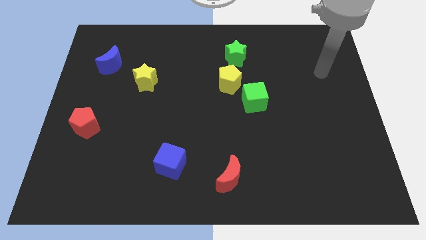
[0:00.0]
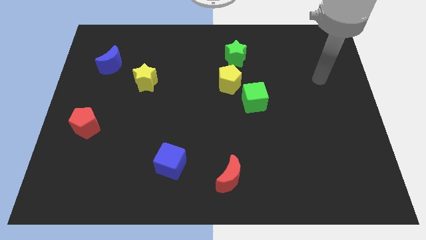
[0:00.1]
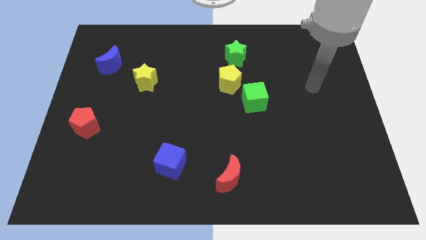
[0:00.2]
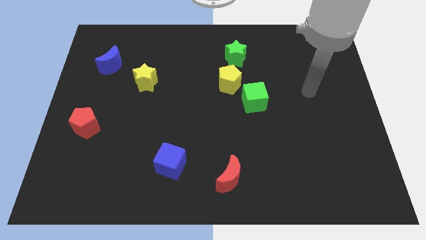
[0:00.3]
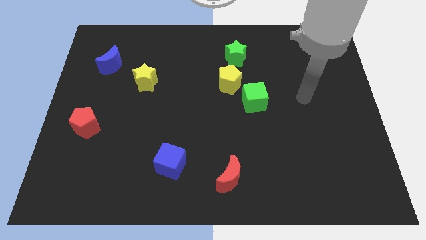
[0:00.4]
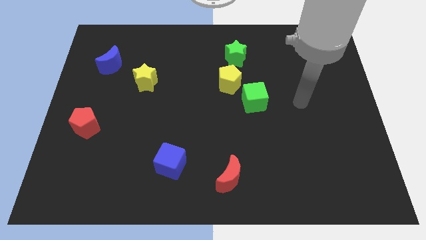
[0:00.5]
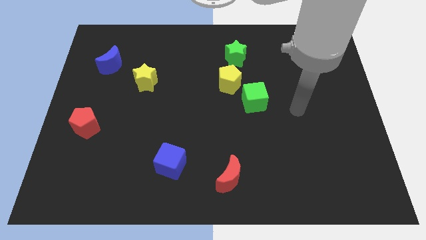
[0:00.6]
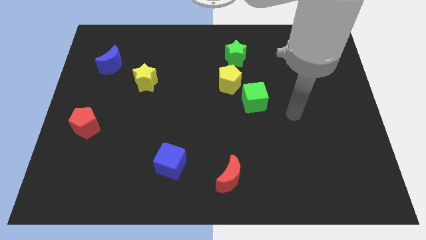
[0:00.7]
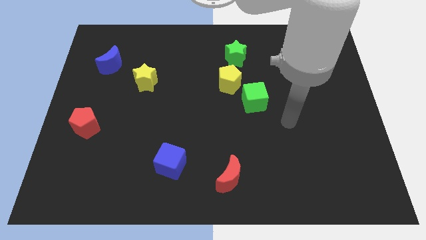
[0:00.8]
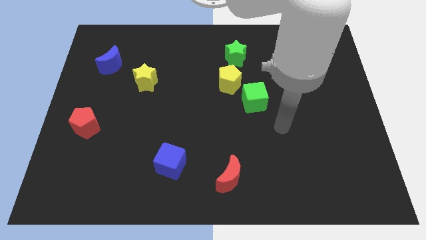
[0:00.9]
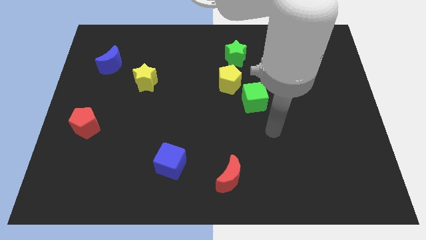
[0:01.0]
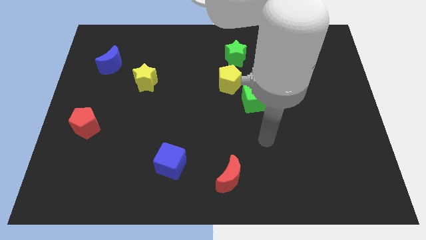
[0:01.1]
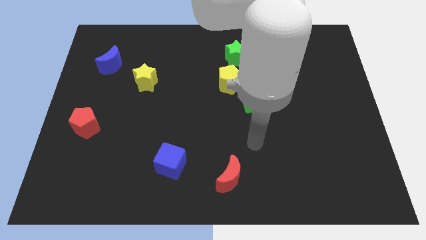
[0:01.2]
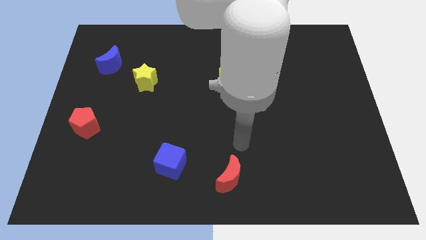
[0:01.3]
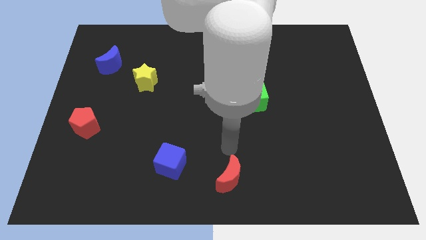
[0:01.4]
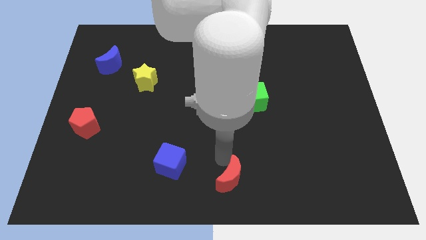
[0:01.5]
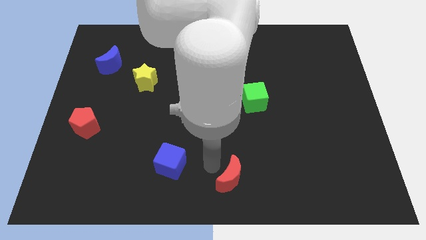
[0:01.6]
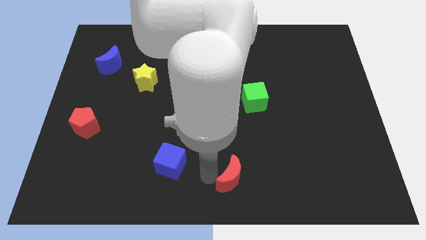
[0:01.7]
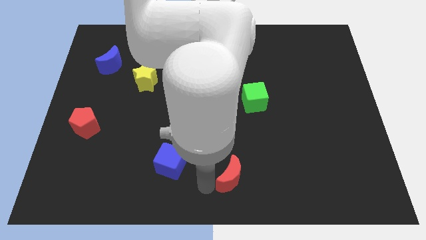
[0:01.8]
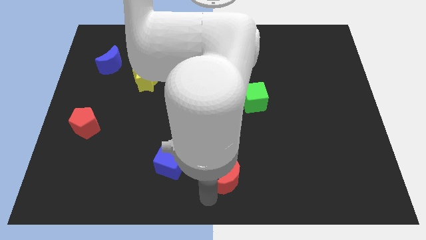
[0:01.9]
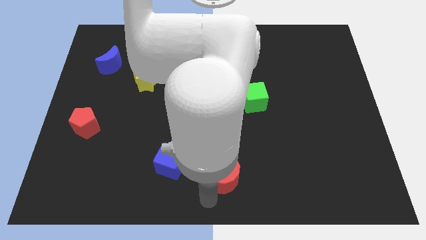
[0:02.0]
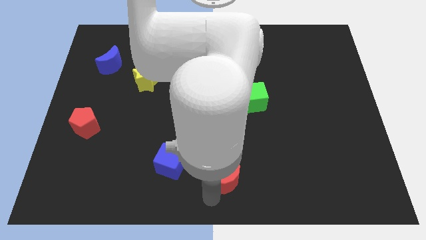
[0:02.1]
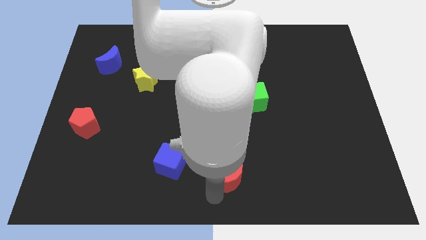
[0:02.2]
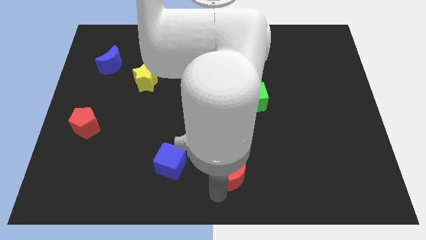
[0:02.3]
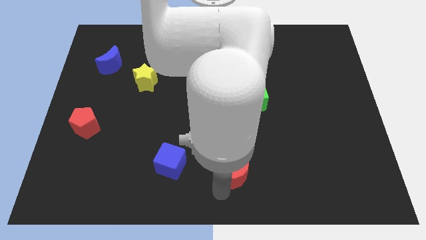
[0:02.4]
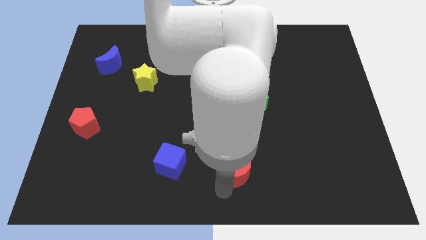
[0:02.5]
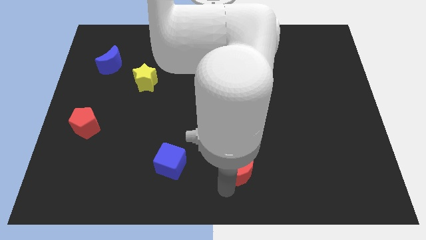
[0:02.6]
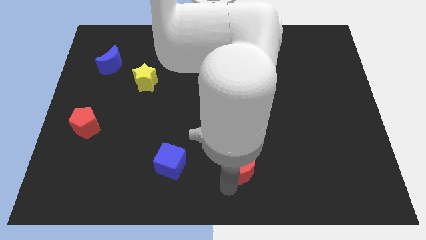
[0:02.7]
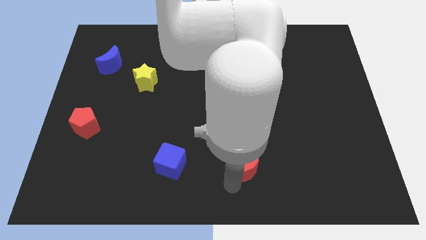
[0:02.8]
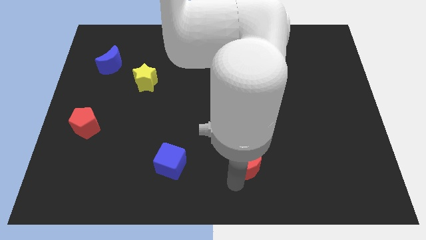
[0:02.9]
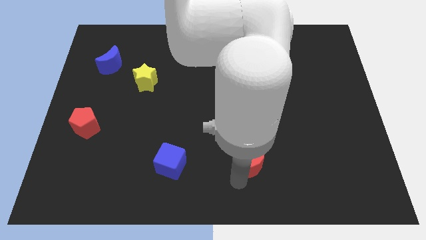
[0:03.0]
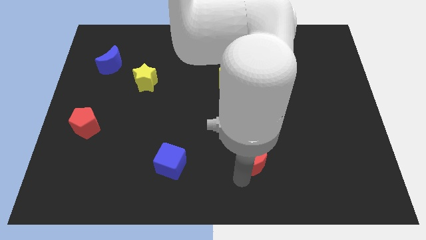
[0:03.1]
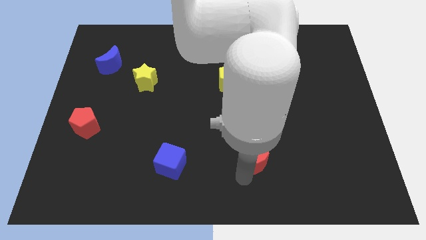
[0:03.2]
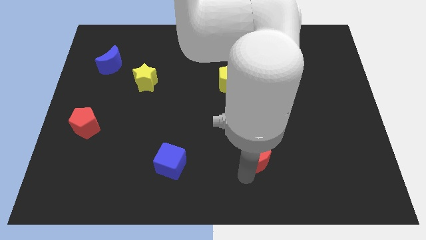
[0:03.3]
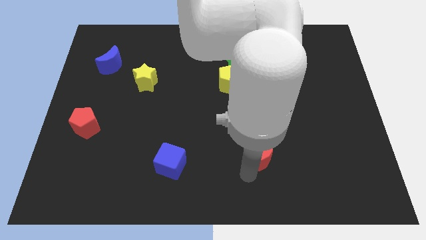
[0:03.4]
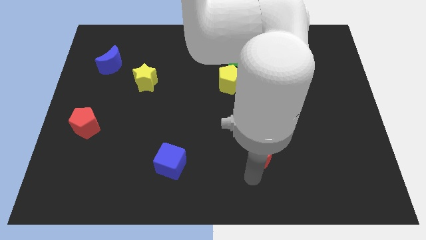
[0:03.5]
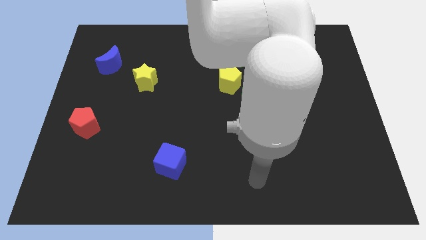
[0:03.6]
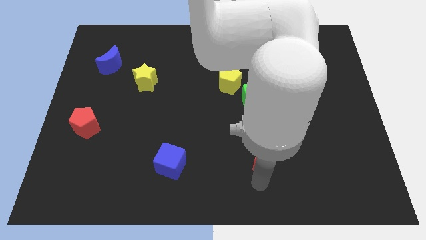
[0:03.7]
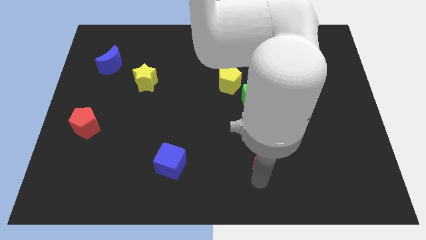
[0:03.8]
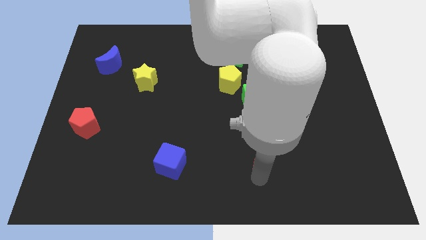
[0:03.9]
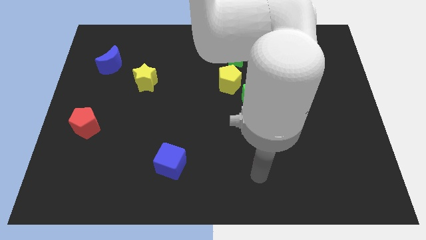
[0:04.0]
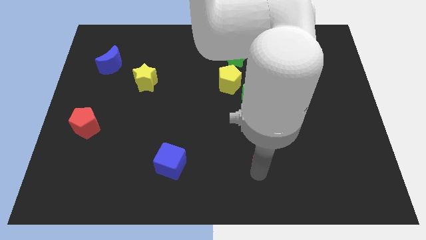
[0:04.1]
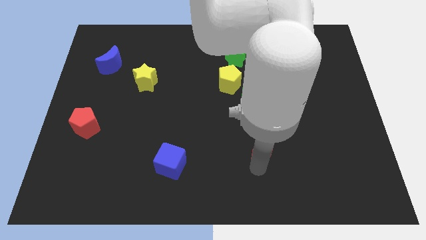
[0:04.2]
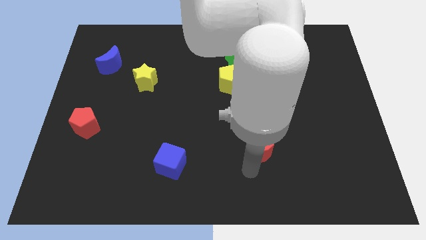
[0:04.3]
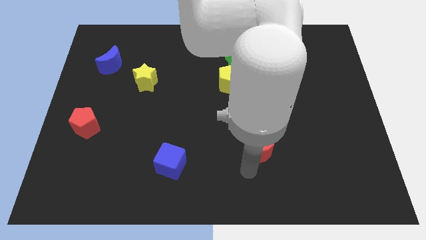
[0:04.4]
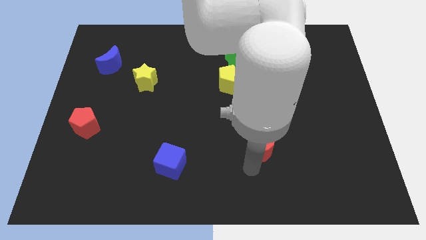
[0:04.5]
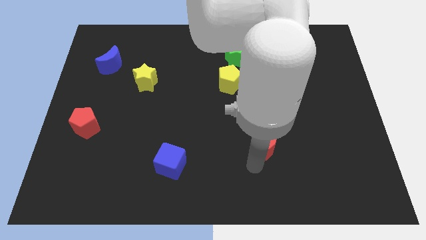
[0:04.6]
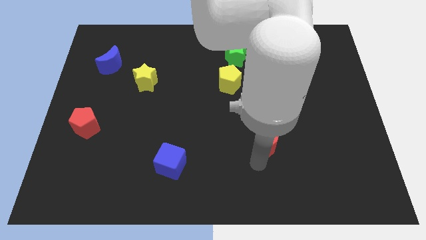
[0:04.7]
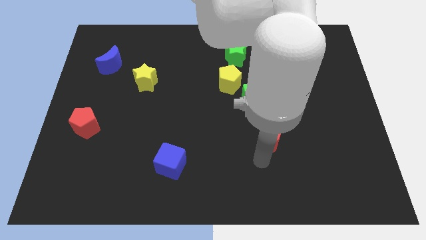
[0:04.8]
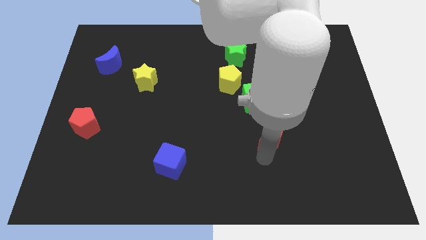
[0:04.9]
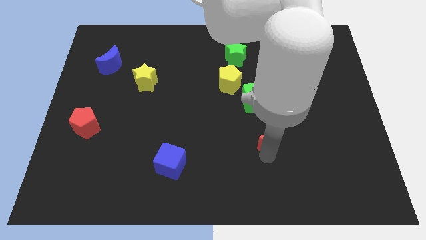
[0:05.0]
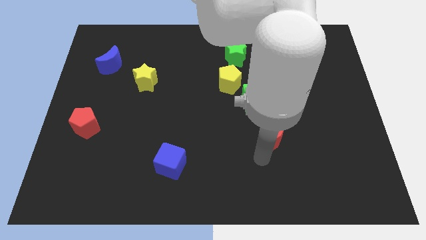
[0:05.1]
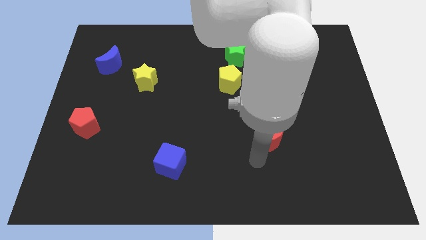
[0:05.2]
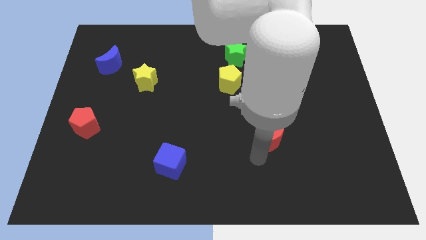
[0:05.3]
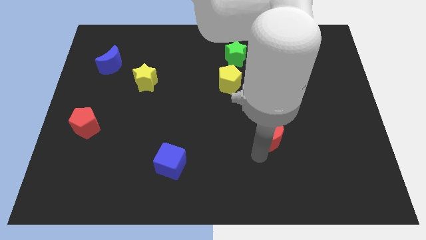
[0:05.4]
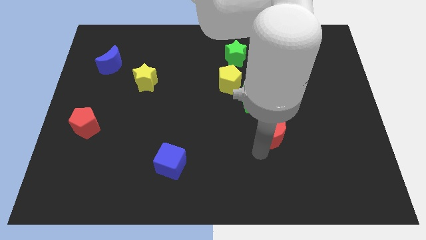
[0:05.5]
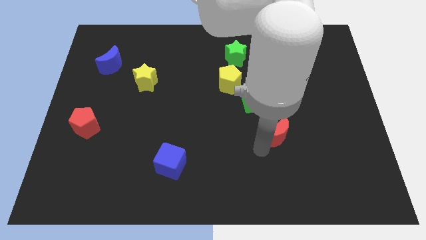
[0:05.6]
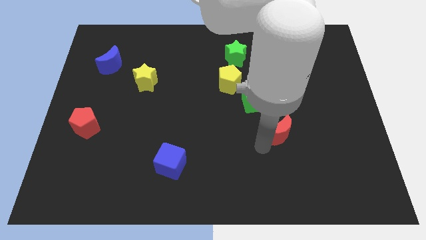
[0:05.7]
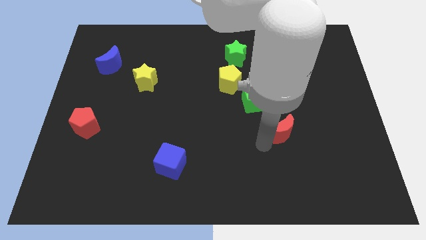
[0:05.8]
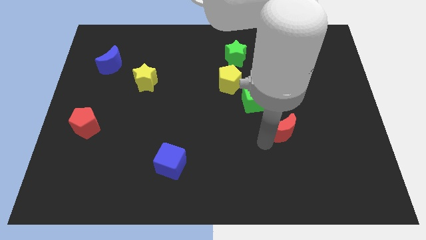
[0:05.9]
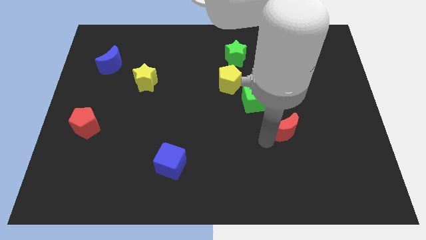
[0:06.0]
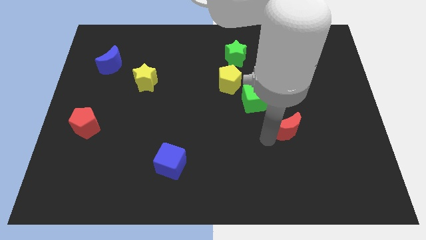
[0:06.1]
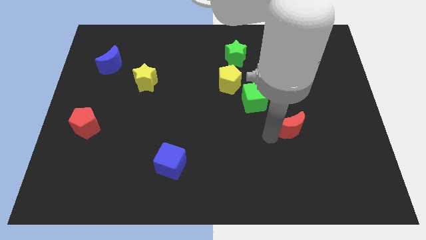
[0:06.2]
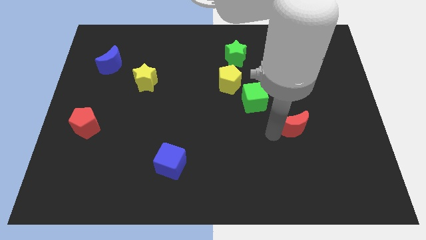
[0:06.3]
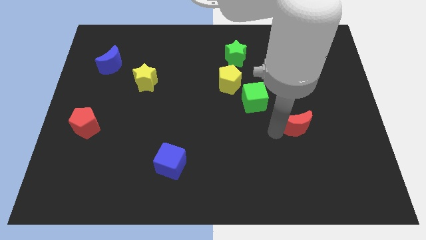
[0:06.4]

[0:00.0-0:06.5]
push the red moon diagonally up and right

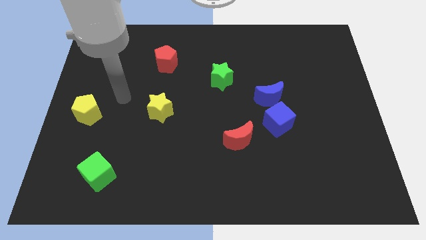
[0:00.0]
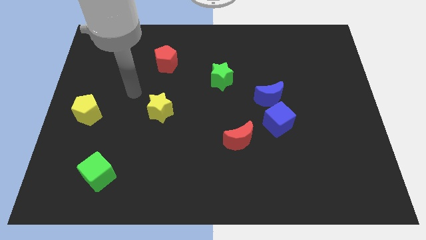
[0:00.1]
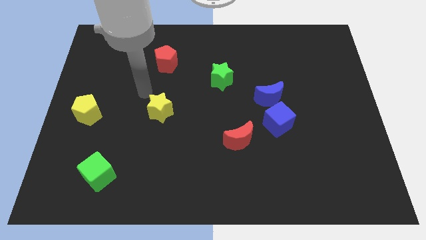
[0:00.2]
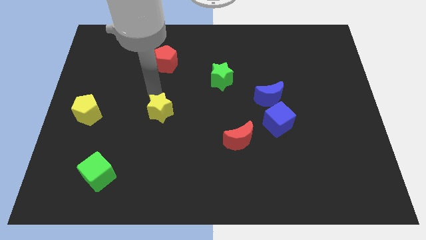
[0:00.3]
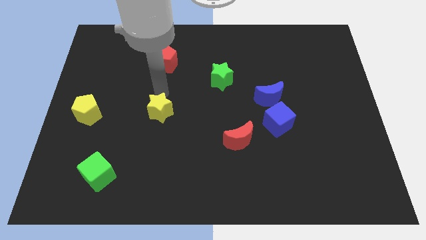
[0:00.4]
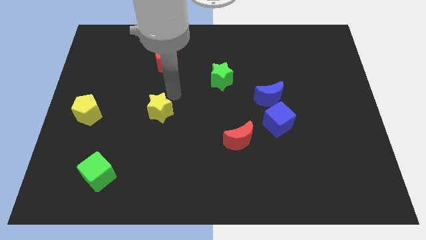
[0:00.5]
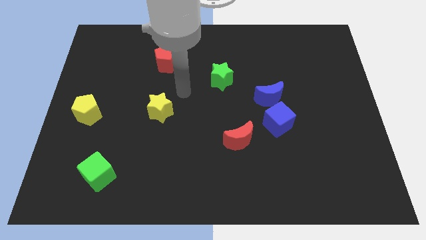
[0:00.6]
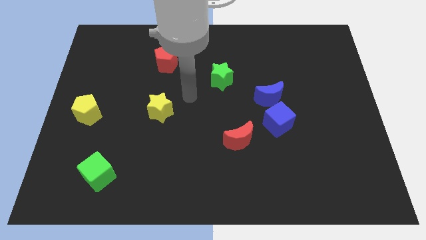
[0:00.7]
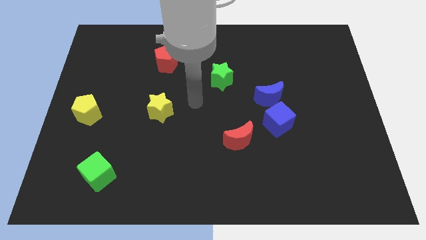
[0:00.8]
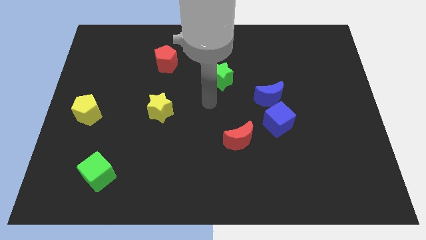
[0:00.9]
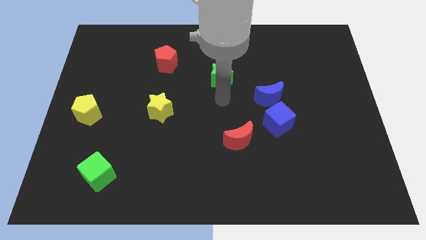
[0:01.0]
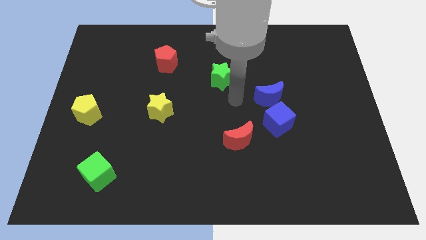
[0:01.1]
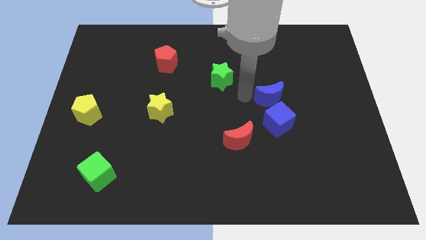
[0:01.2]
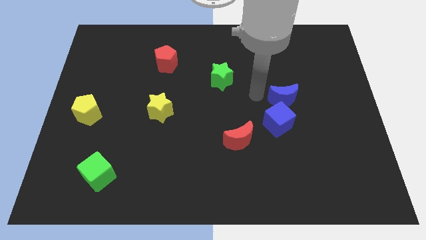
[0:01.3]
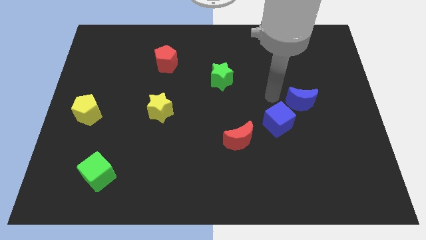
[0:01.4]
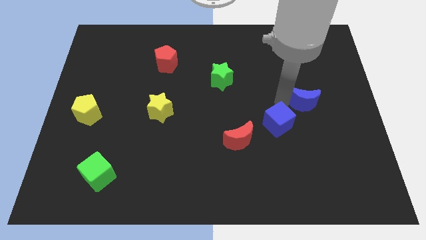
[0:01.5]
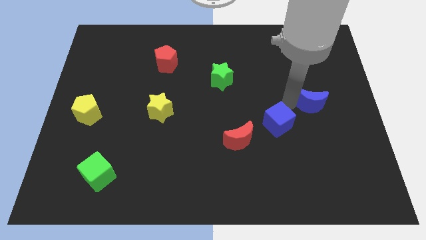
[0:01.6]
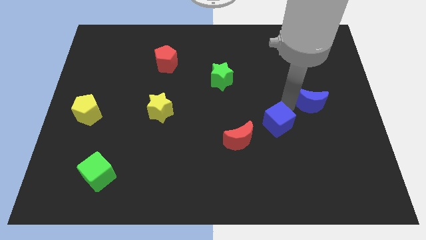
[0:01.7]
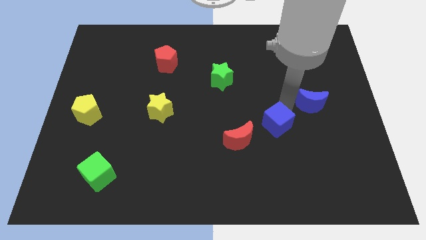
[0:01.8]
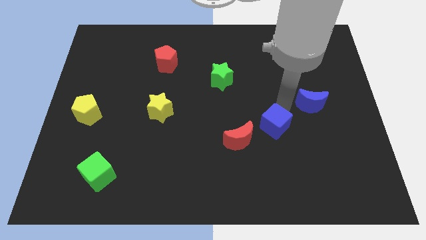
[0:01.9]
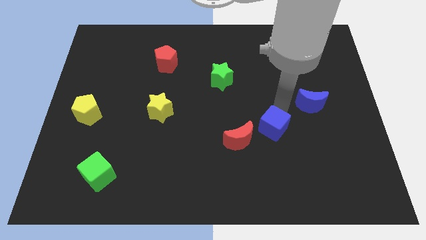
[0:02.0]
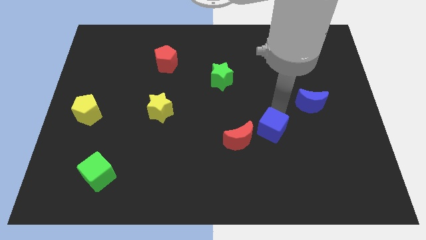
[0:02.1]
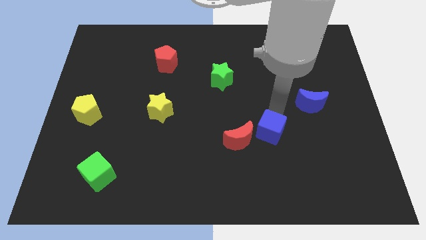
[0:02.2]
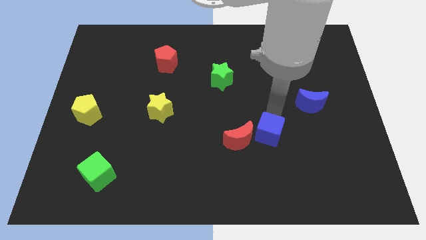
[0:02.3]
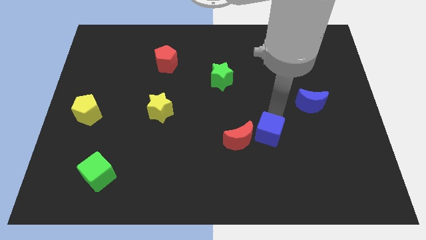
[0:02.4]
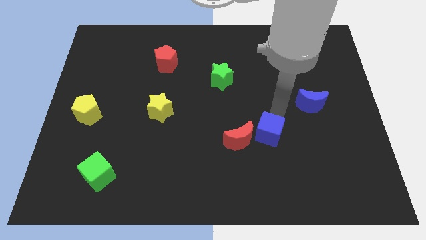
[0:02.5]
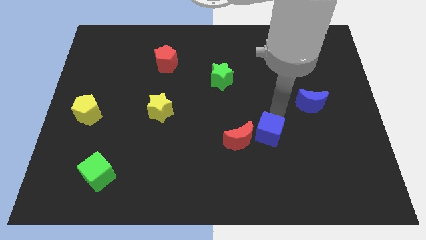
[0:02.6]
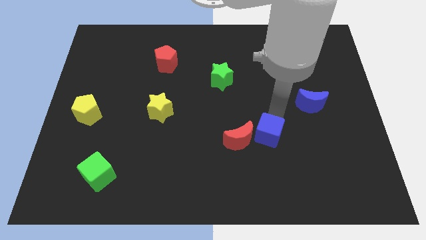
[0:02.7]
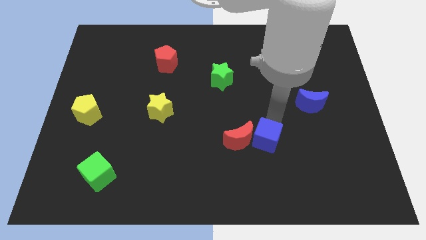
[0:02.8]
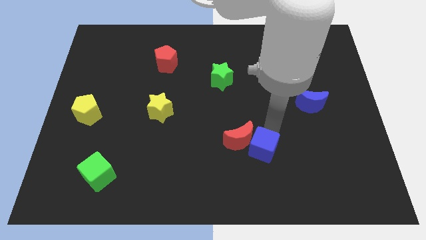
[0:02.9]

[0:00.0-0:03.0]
slightly slide the blue cube down and then to the left
